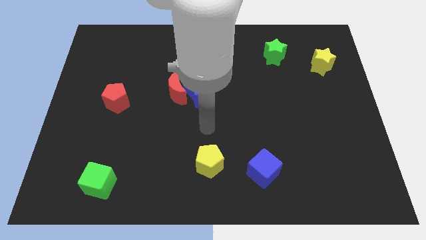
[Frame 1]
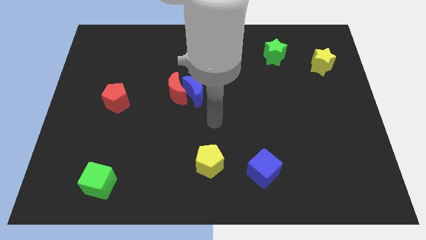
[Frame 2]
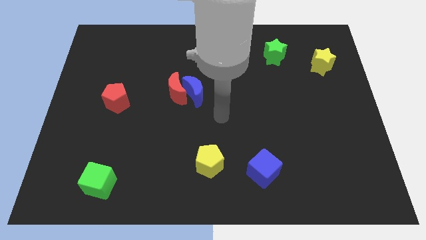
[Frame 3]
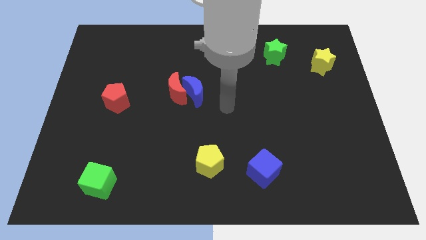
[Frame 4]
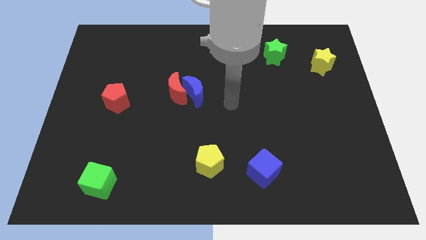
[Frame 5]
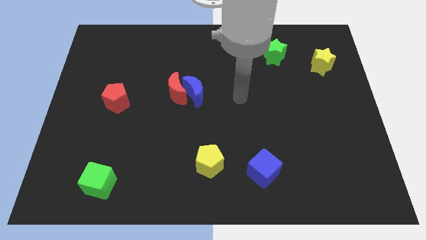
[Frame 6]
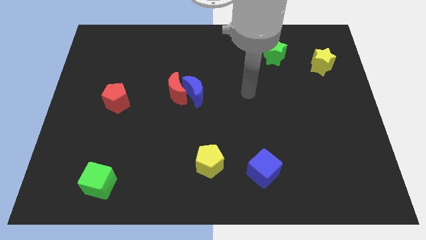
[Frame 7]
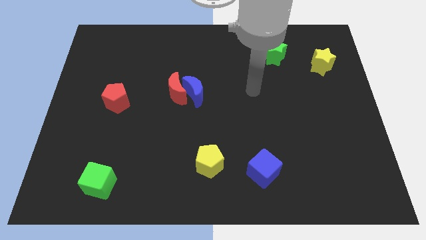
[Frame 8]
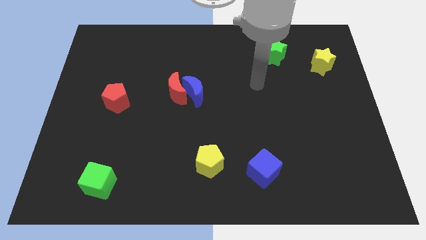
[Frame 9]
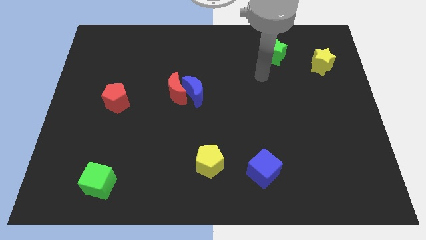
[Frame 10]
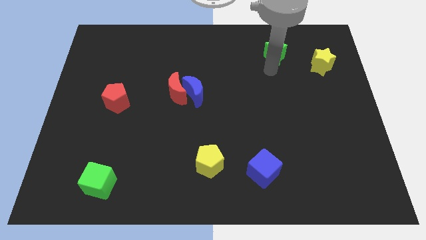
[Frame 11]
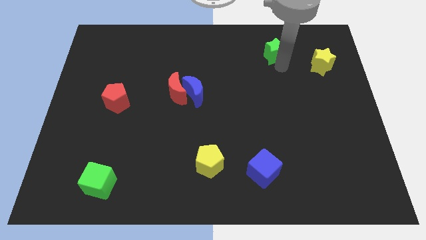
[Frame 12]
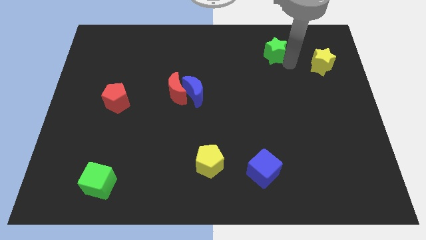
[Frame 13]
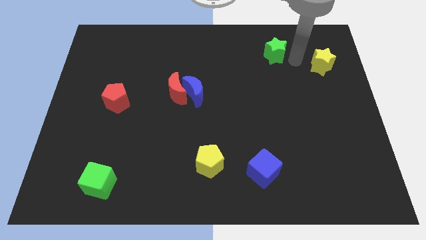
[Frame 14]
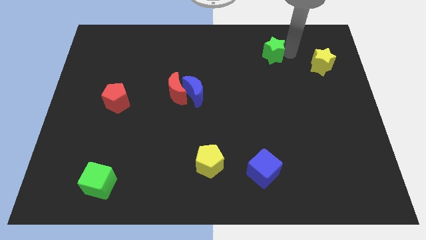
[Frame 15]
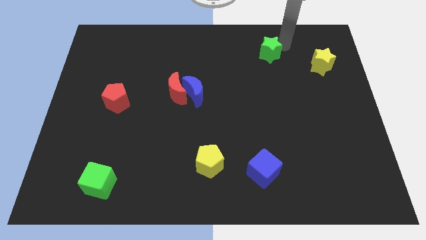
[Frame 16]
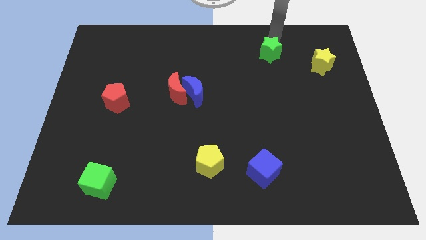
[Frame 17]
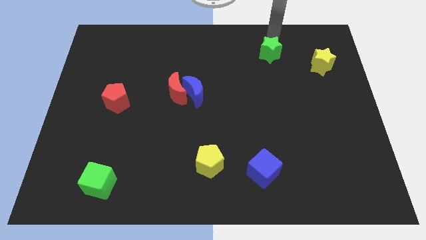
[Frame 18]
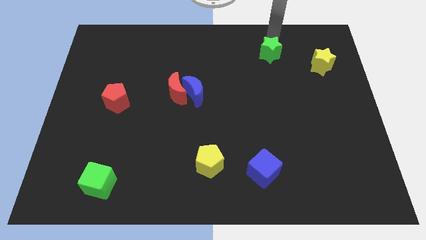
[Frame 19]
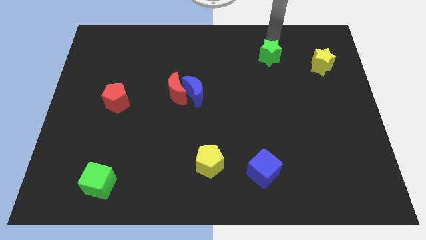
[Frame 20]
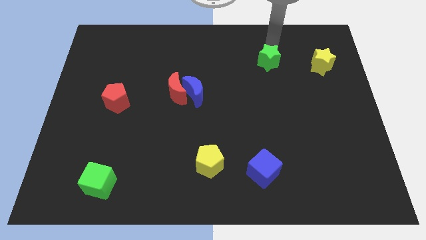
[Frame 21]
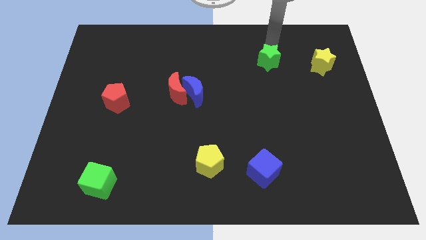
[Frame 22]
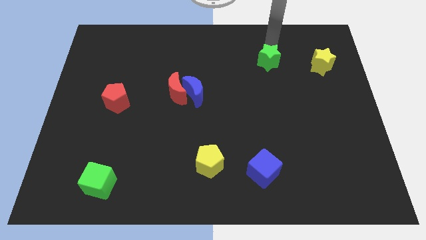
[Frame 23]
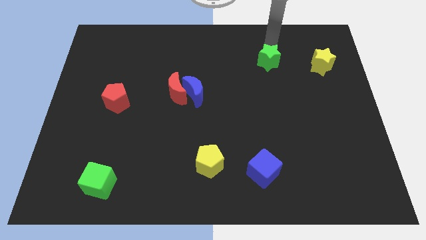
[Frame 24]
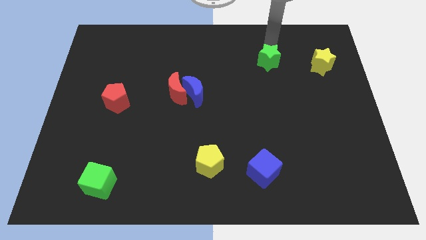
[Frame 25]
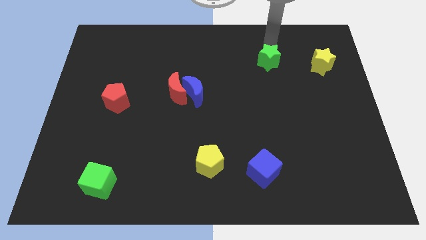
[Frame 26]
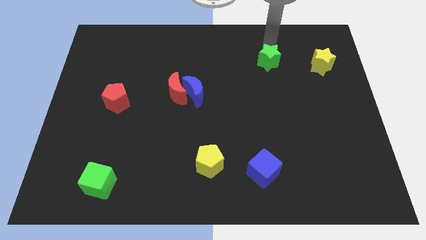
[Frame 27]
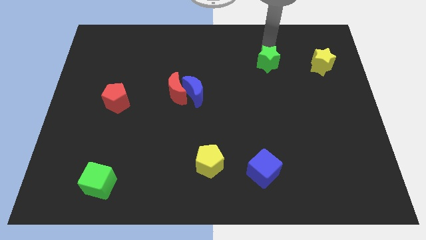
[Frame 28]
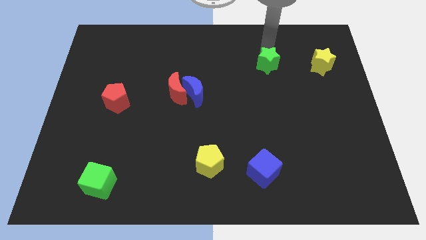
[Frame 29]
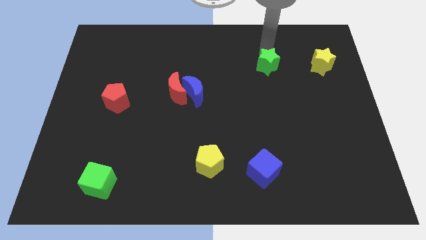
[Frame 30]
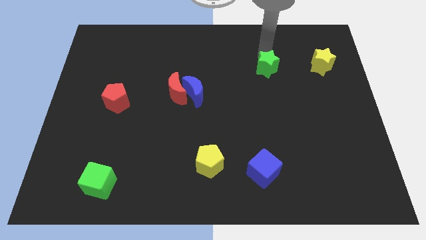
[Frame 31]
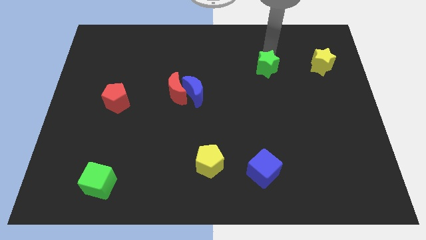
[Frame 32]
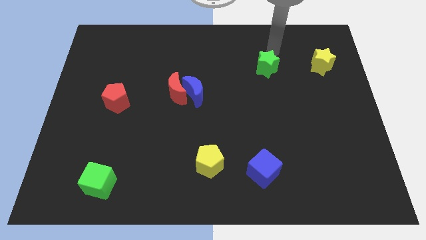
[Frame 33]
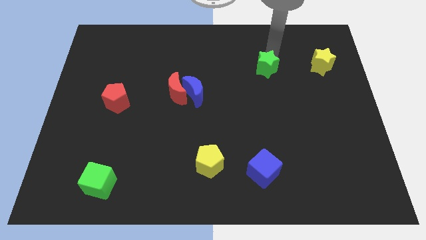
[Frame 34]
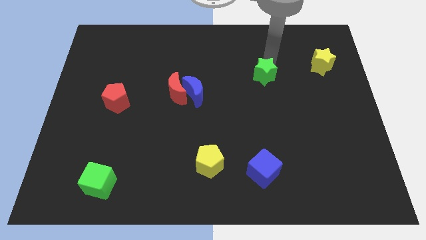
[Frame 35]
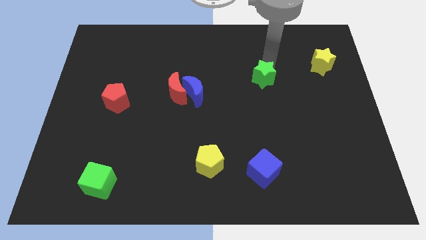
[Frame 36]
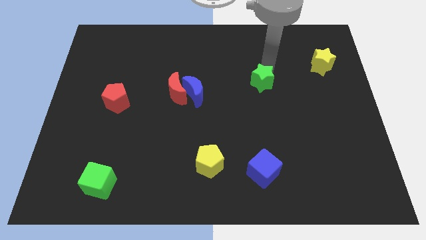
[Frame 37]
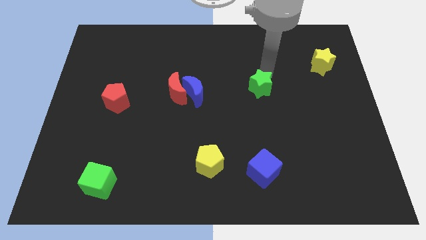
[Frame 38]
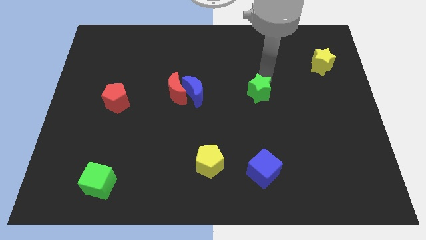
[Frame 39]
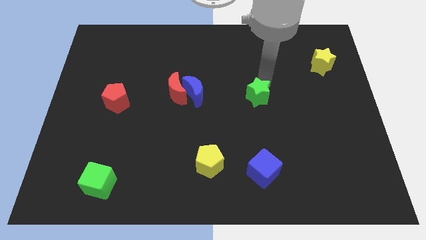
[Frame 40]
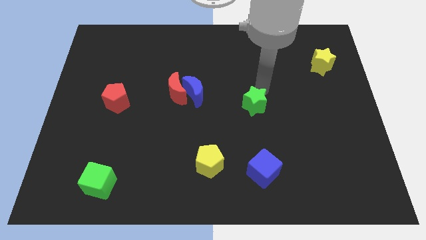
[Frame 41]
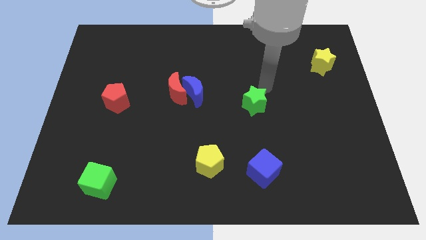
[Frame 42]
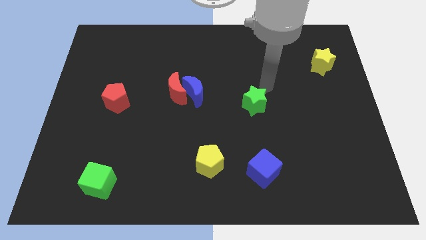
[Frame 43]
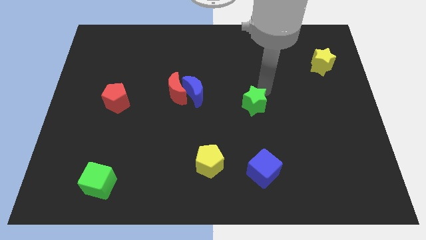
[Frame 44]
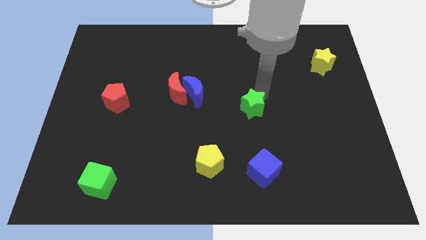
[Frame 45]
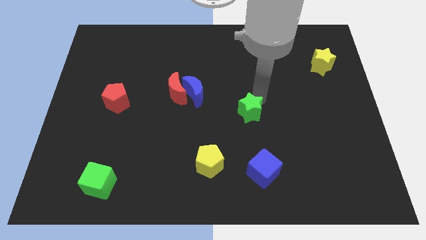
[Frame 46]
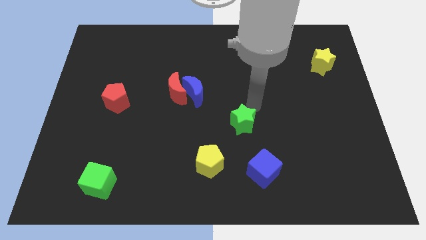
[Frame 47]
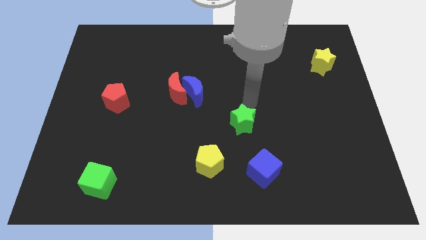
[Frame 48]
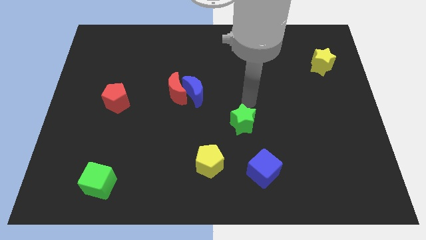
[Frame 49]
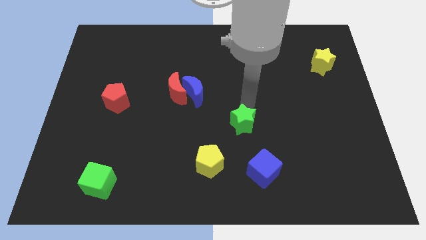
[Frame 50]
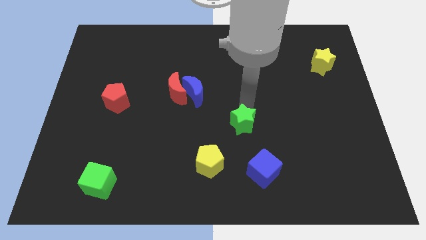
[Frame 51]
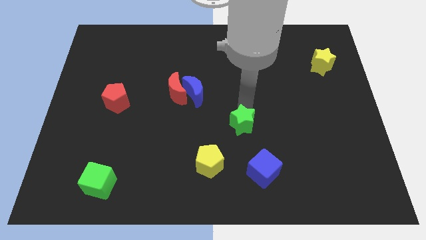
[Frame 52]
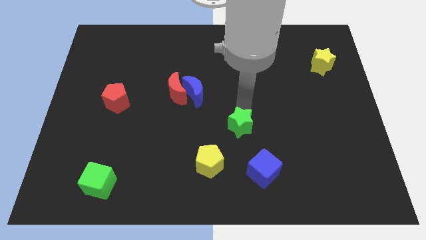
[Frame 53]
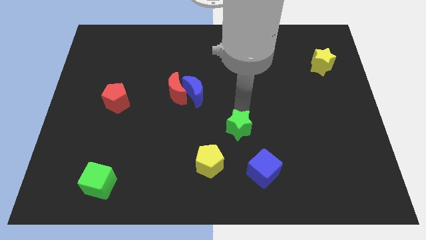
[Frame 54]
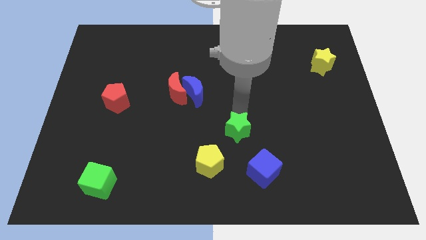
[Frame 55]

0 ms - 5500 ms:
push the green star to the top left of the blue cube

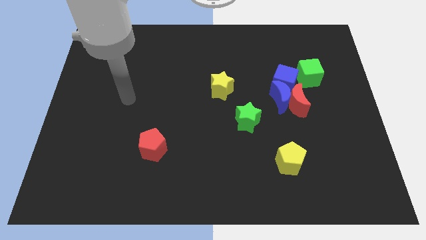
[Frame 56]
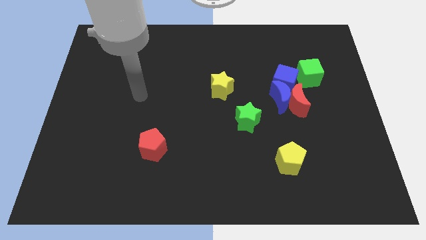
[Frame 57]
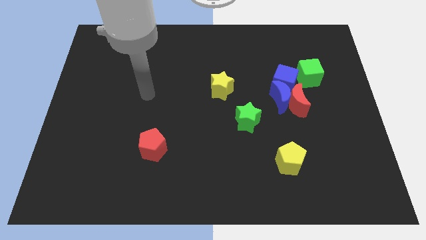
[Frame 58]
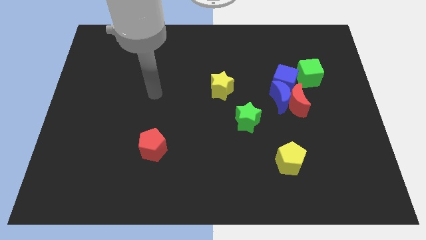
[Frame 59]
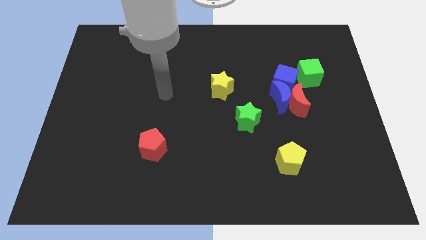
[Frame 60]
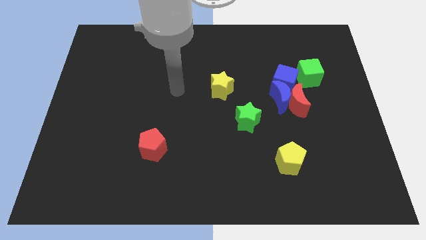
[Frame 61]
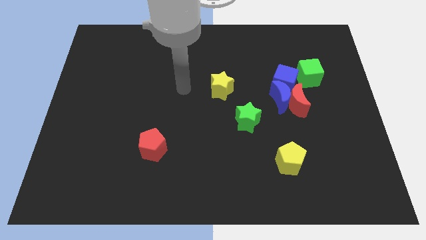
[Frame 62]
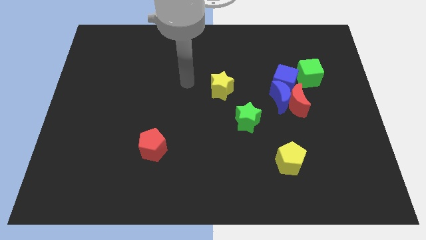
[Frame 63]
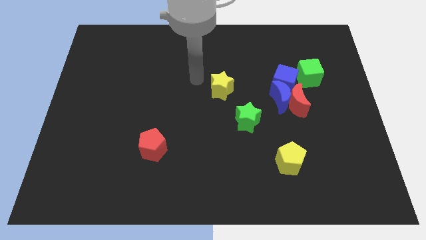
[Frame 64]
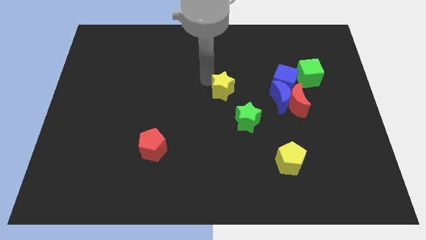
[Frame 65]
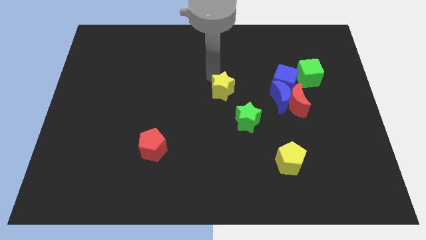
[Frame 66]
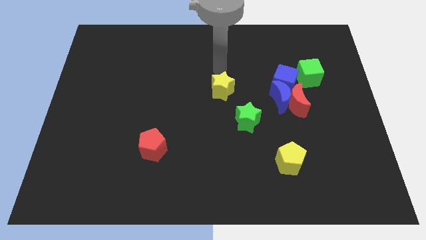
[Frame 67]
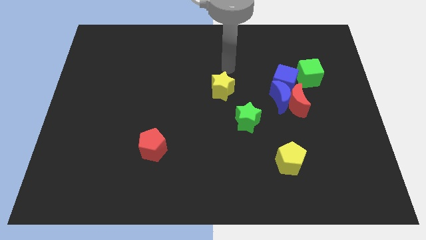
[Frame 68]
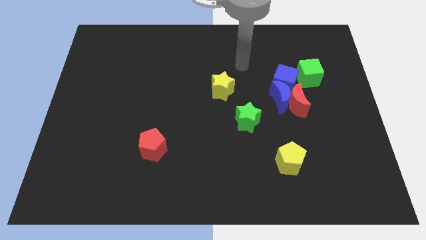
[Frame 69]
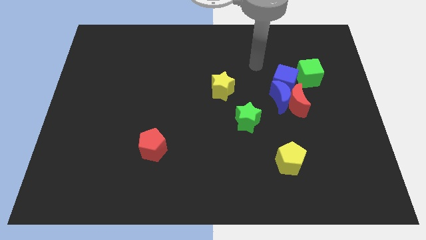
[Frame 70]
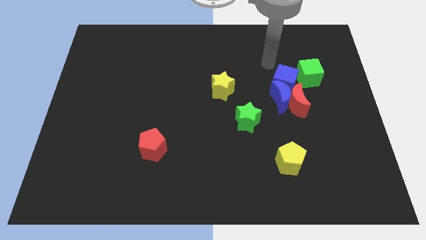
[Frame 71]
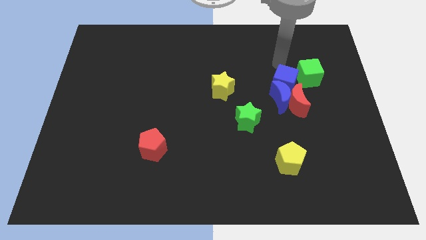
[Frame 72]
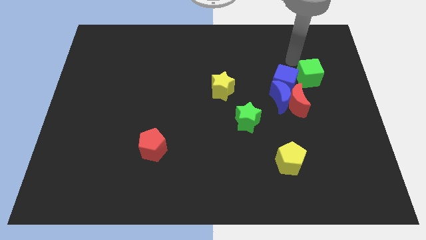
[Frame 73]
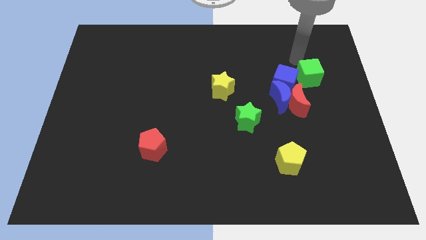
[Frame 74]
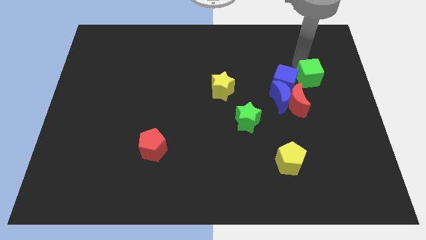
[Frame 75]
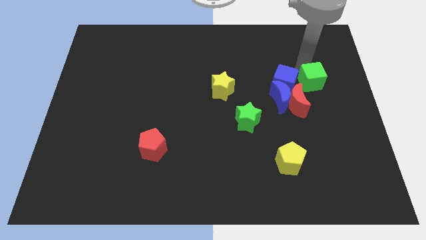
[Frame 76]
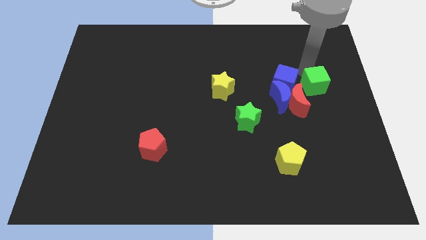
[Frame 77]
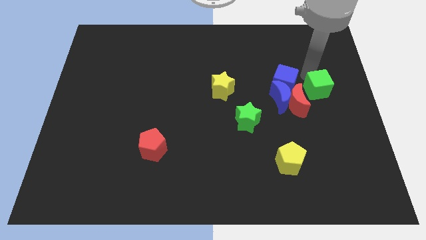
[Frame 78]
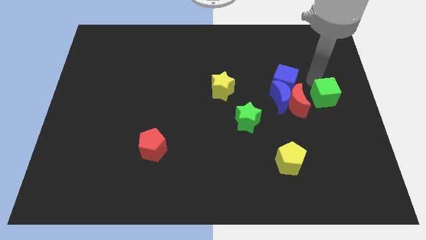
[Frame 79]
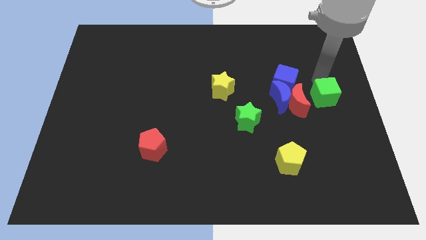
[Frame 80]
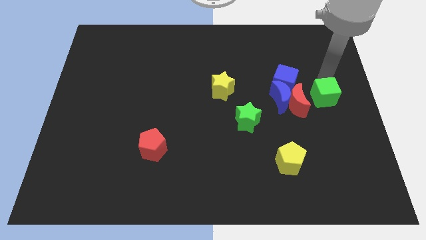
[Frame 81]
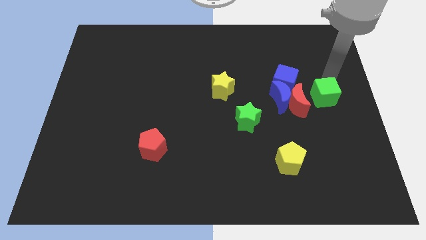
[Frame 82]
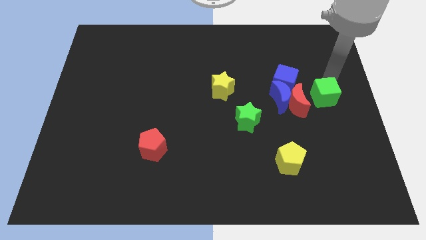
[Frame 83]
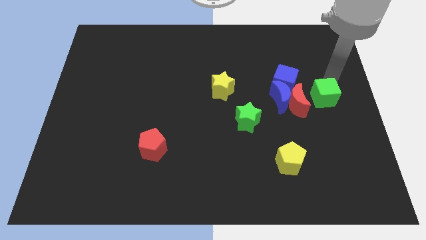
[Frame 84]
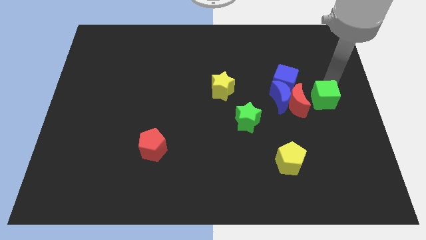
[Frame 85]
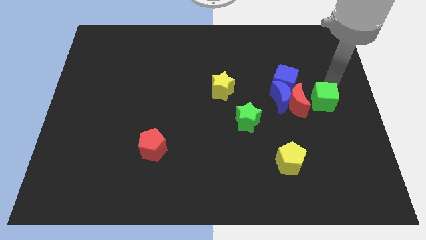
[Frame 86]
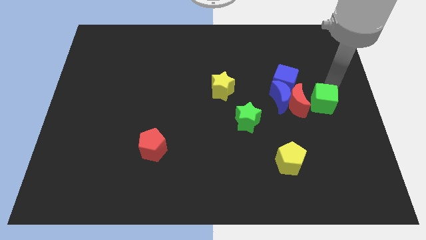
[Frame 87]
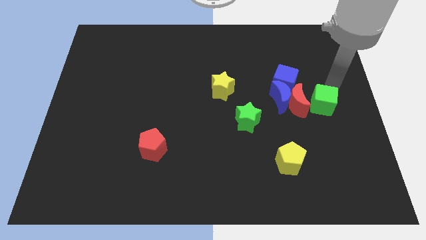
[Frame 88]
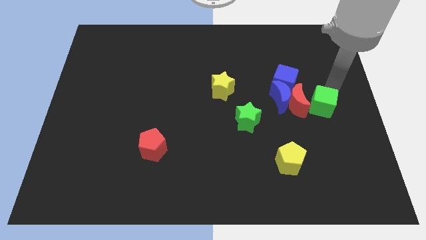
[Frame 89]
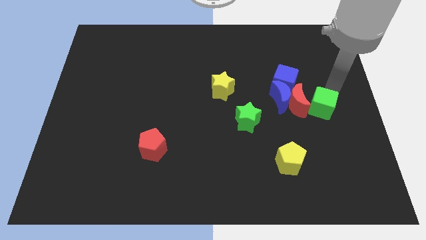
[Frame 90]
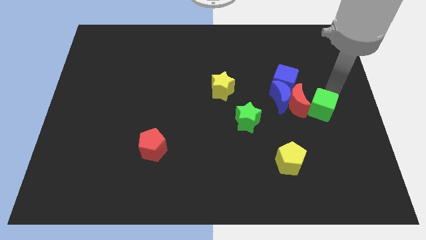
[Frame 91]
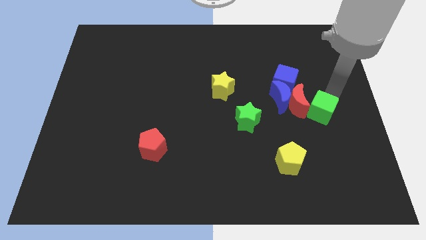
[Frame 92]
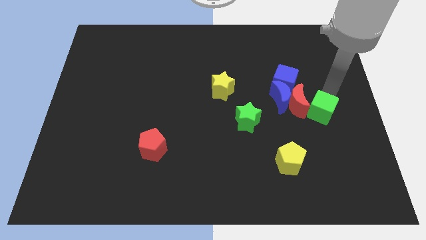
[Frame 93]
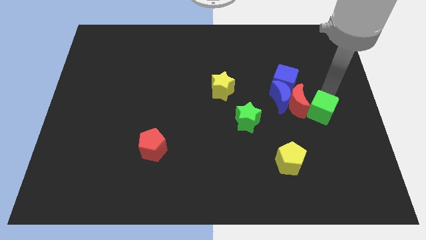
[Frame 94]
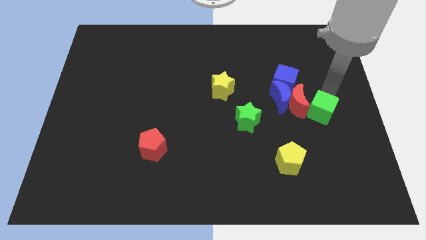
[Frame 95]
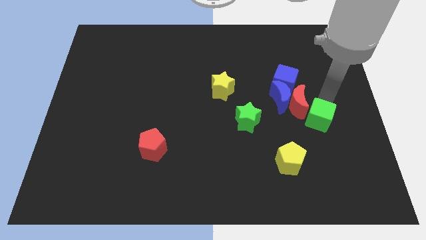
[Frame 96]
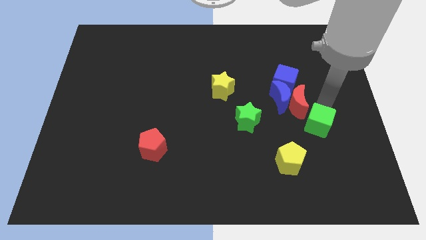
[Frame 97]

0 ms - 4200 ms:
slide the green cube to the top right of the yellow pentagon
